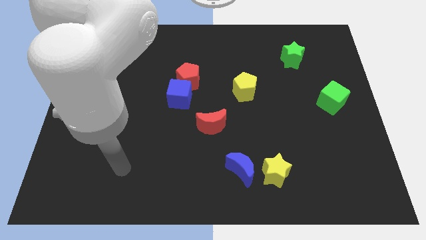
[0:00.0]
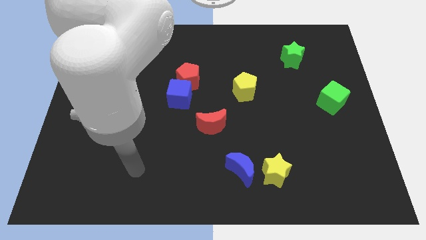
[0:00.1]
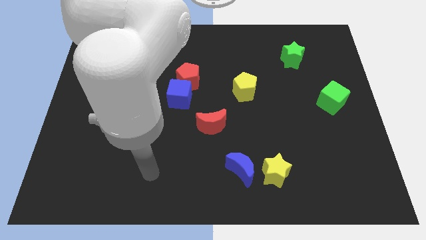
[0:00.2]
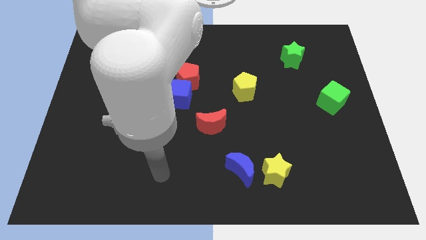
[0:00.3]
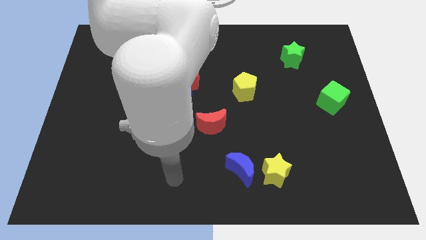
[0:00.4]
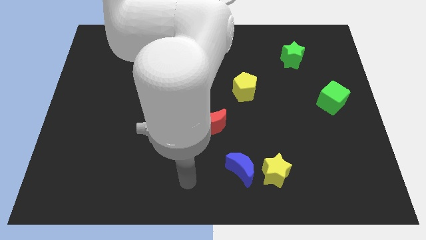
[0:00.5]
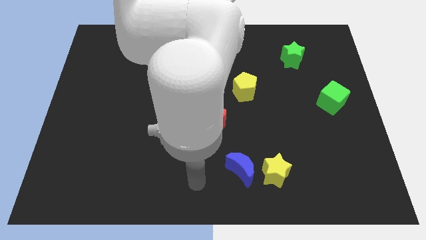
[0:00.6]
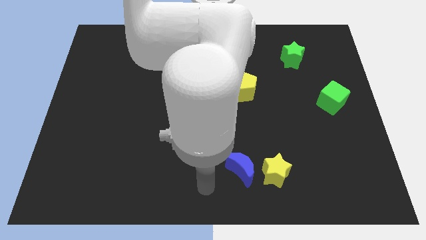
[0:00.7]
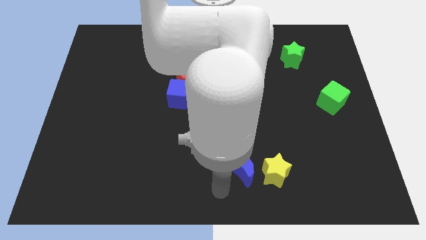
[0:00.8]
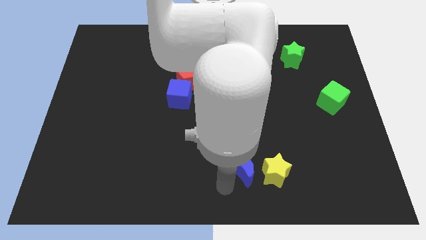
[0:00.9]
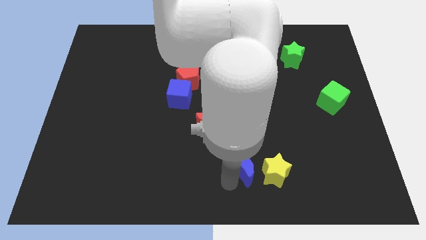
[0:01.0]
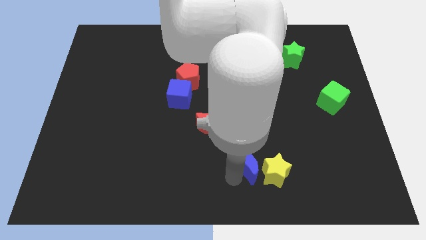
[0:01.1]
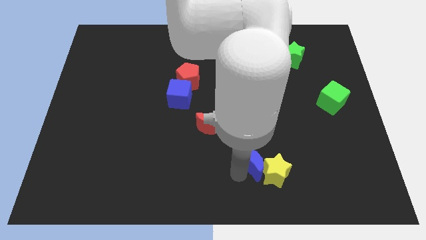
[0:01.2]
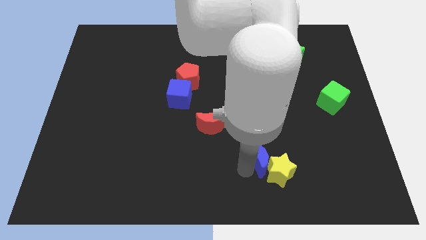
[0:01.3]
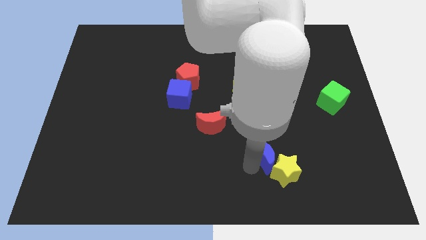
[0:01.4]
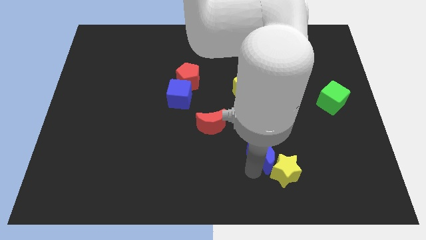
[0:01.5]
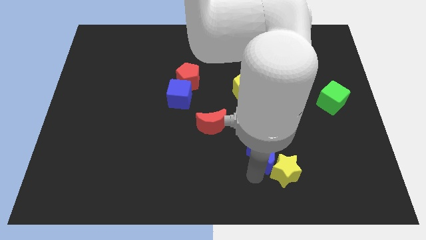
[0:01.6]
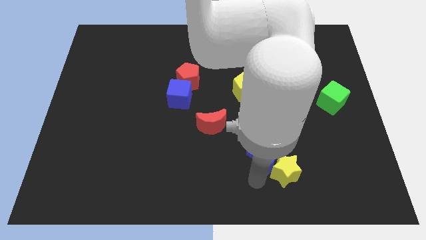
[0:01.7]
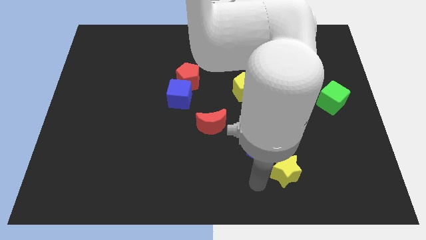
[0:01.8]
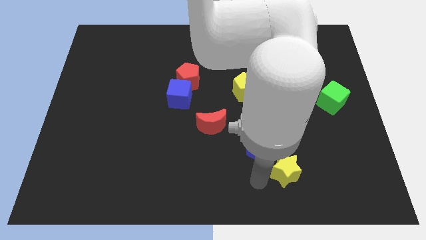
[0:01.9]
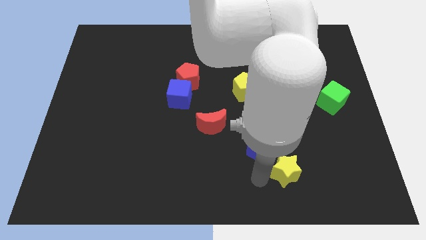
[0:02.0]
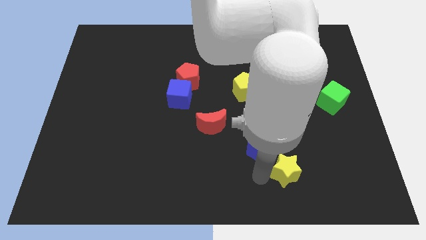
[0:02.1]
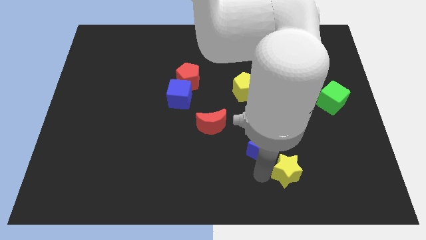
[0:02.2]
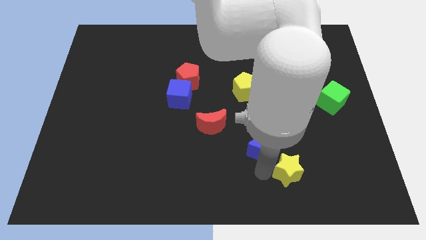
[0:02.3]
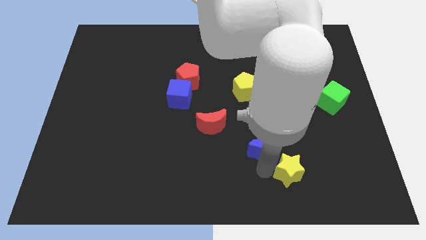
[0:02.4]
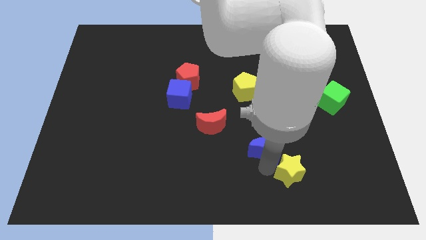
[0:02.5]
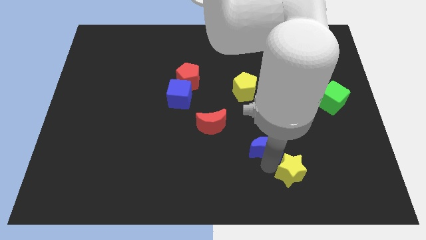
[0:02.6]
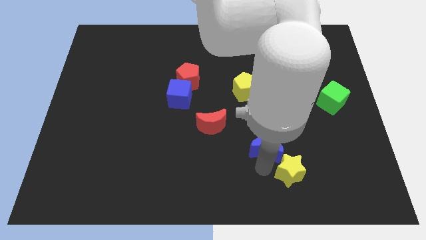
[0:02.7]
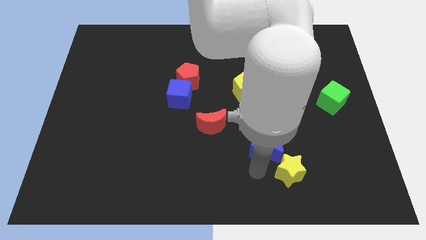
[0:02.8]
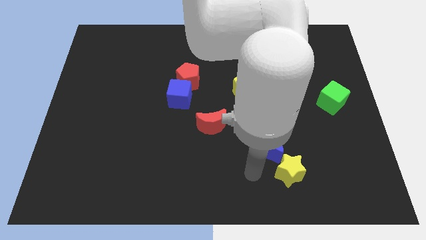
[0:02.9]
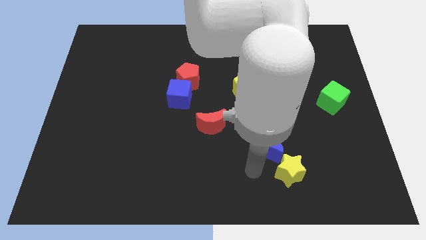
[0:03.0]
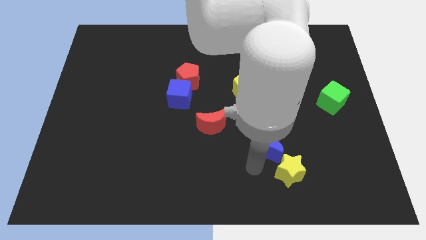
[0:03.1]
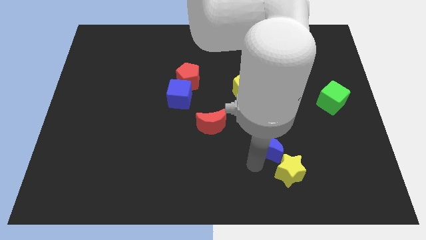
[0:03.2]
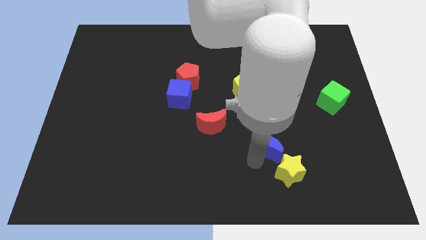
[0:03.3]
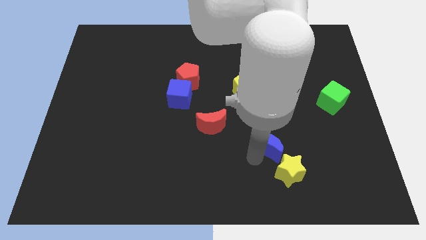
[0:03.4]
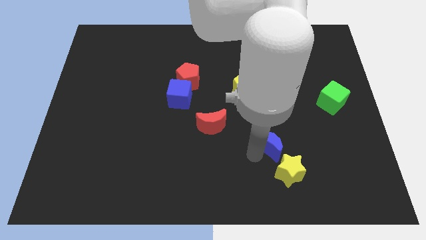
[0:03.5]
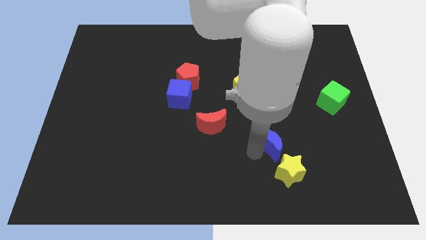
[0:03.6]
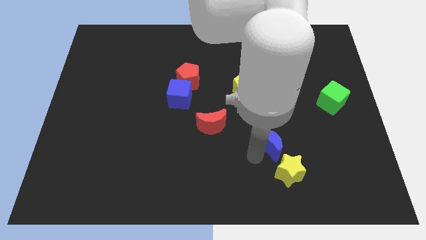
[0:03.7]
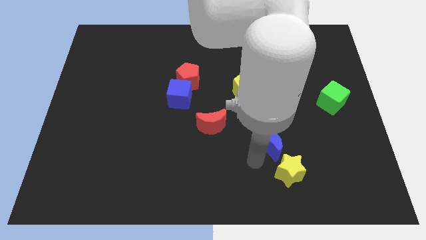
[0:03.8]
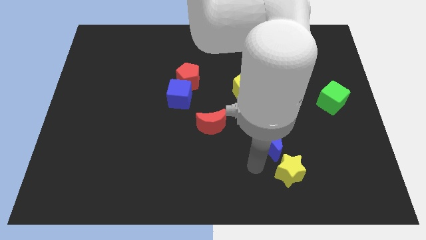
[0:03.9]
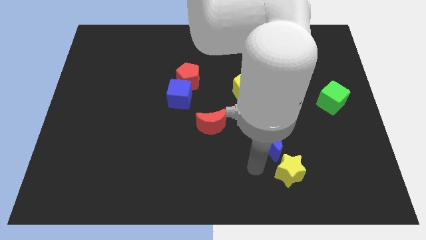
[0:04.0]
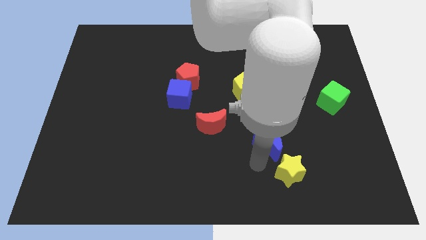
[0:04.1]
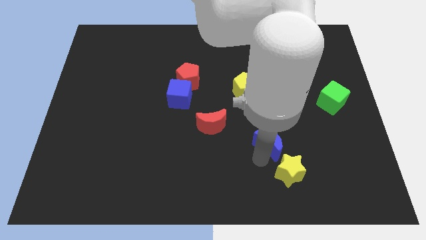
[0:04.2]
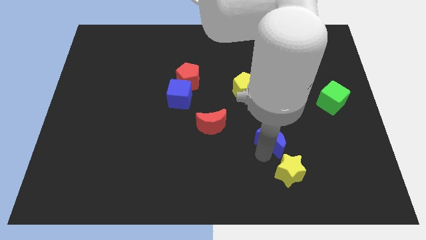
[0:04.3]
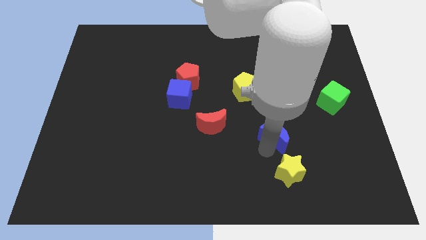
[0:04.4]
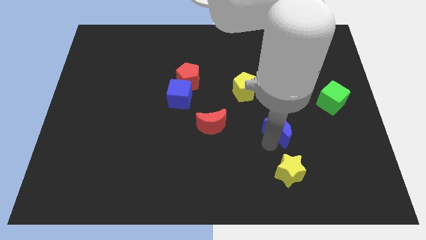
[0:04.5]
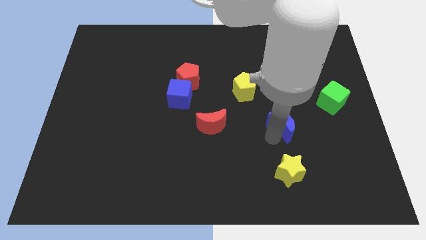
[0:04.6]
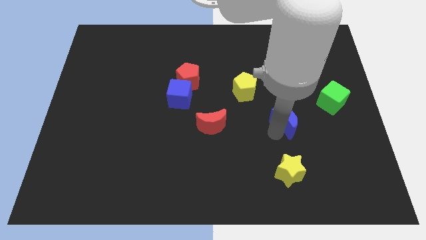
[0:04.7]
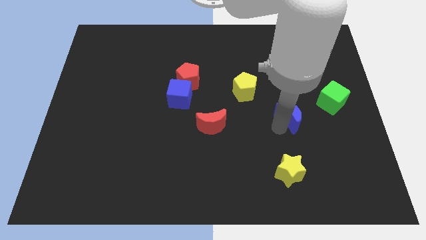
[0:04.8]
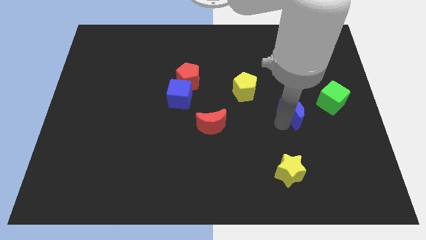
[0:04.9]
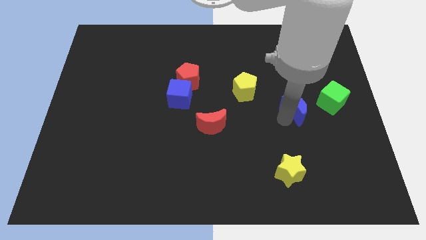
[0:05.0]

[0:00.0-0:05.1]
push the blue moon upwards and right diagonally

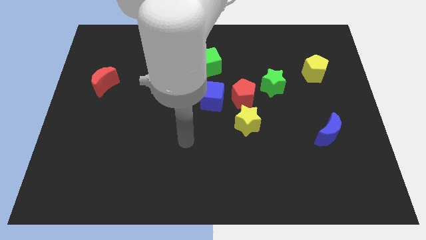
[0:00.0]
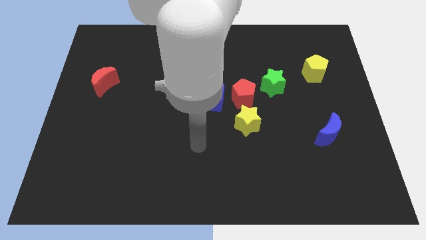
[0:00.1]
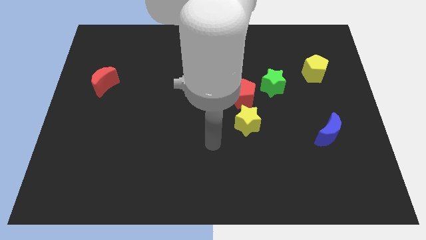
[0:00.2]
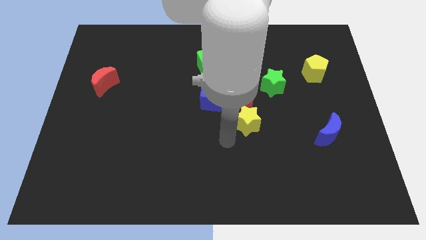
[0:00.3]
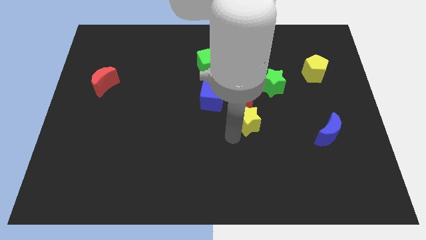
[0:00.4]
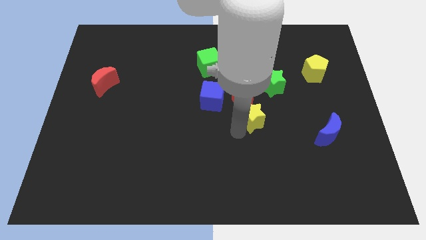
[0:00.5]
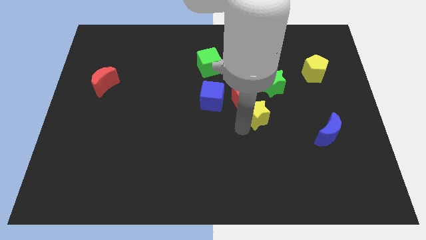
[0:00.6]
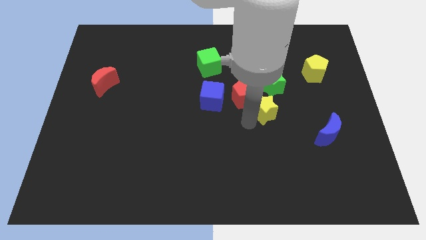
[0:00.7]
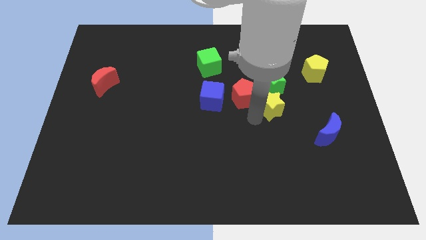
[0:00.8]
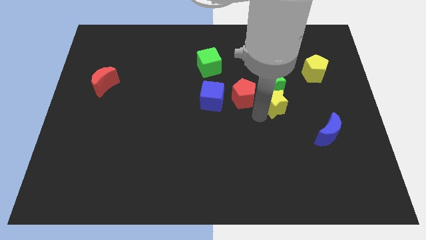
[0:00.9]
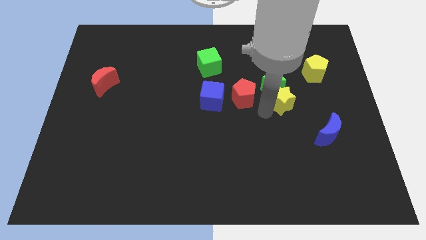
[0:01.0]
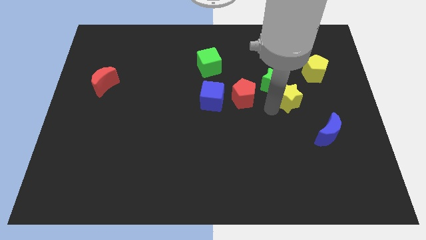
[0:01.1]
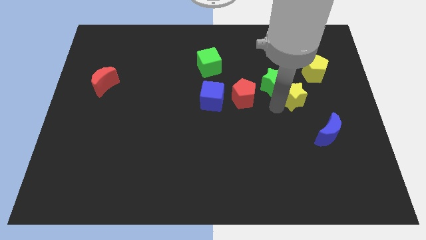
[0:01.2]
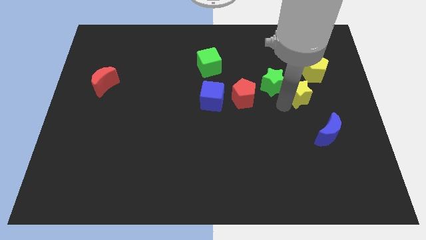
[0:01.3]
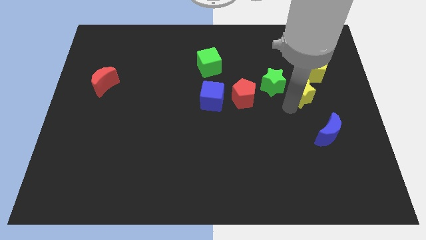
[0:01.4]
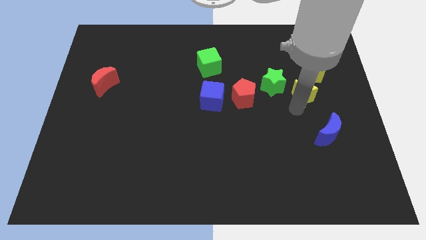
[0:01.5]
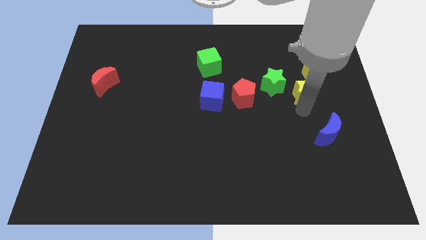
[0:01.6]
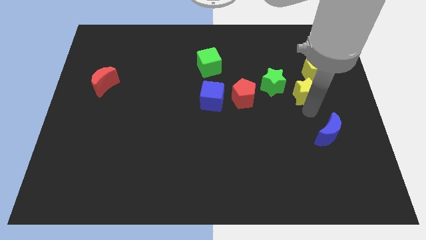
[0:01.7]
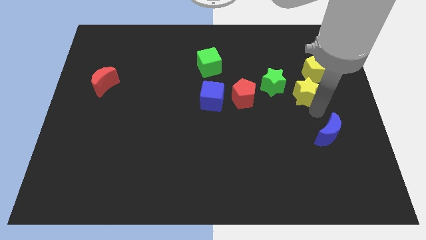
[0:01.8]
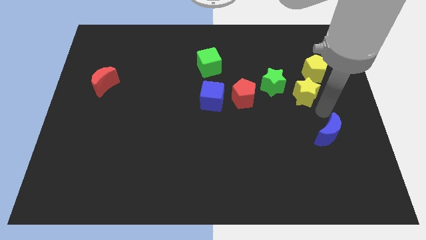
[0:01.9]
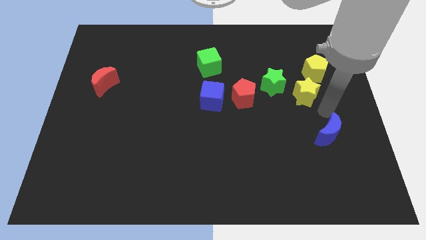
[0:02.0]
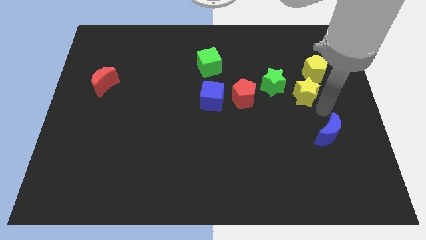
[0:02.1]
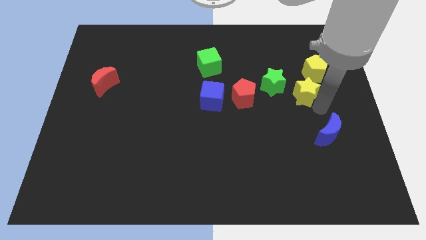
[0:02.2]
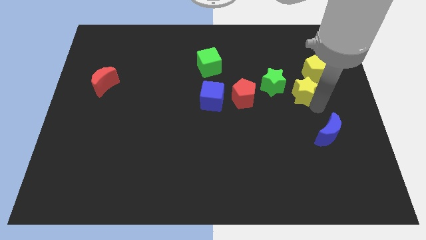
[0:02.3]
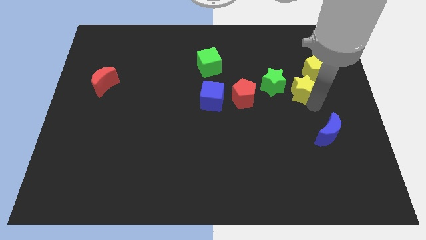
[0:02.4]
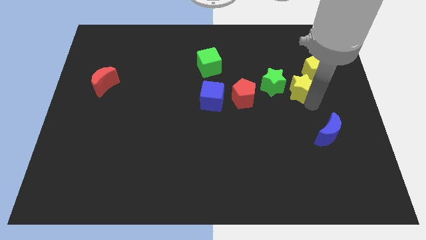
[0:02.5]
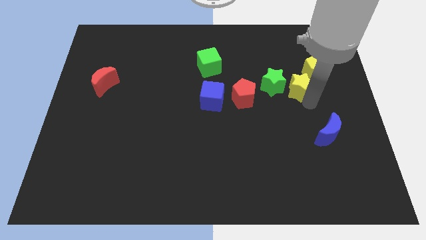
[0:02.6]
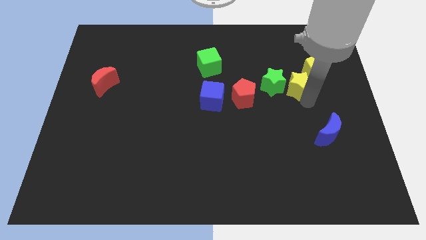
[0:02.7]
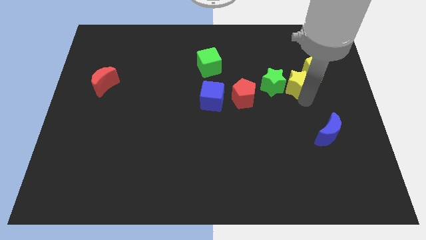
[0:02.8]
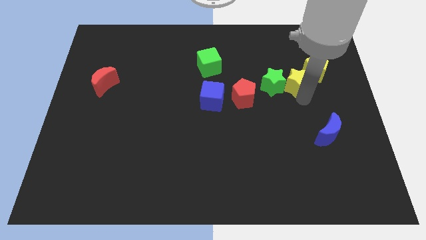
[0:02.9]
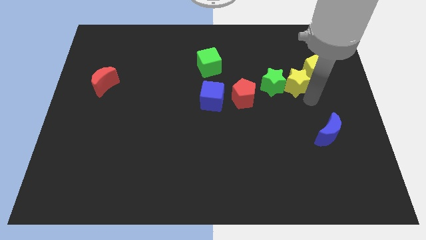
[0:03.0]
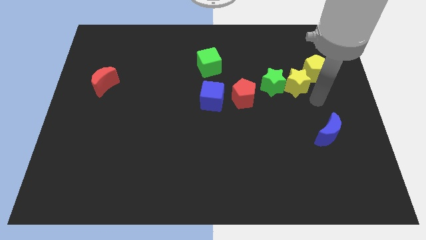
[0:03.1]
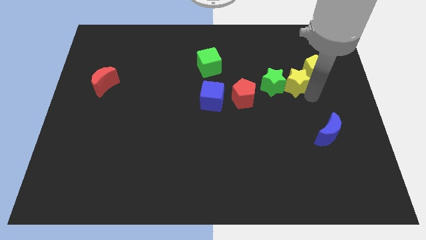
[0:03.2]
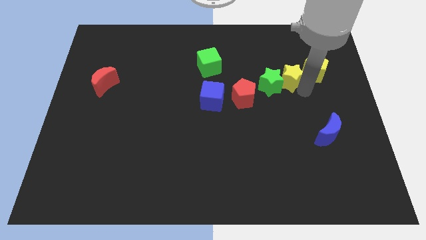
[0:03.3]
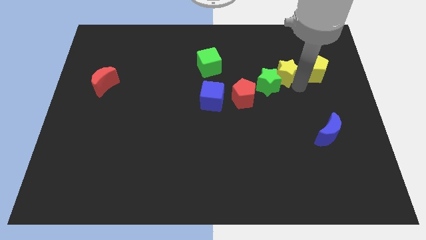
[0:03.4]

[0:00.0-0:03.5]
move the yellow star up slightly
